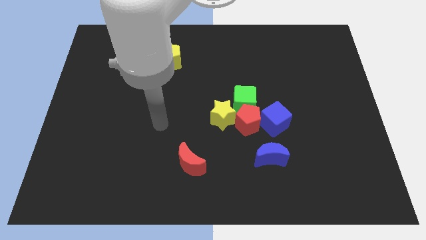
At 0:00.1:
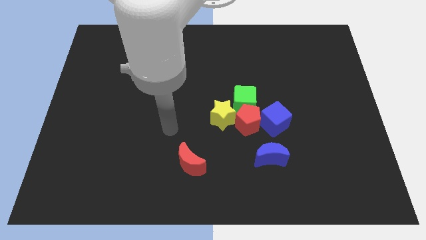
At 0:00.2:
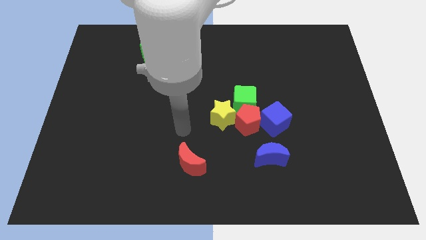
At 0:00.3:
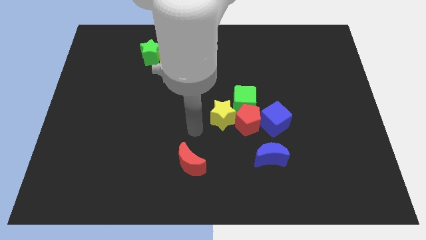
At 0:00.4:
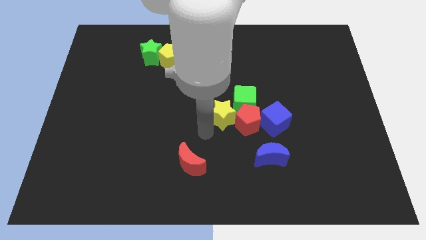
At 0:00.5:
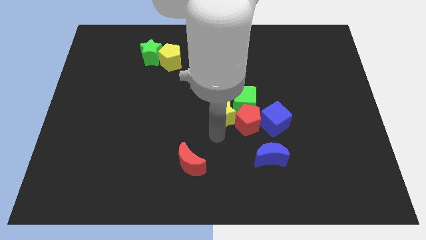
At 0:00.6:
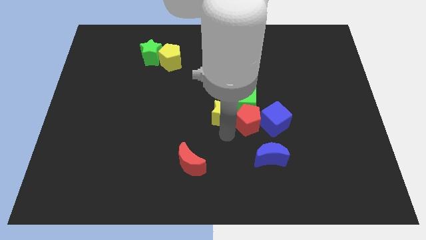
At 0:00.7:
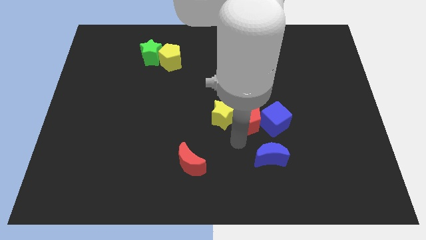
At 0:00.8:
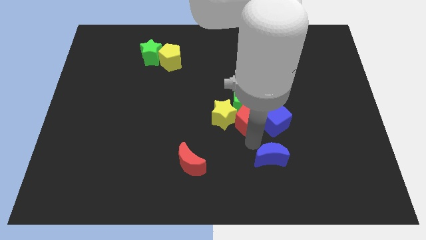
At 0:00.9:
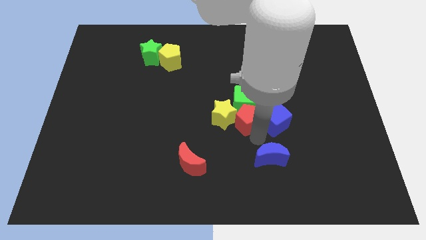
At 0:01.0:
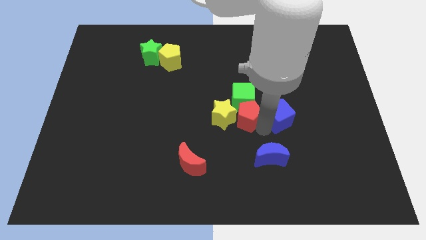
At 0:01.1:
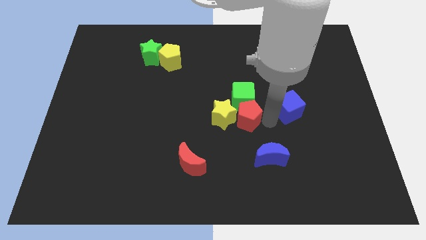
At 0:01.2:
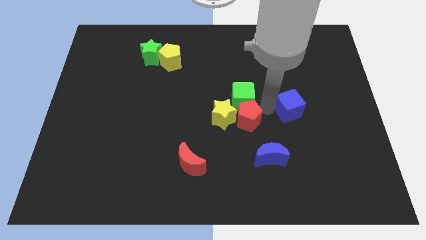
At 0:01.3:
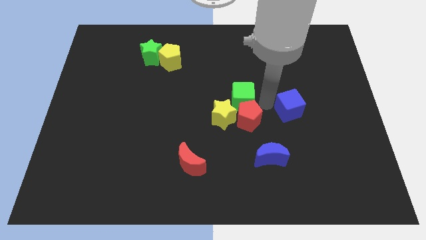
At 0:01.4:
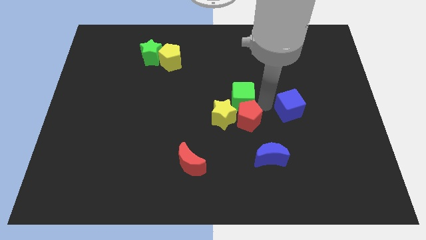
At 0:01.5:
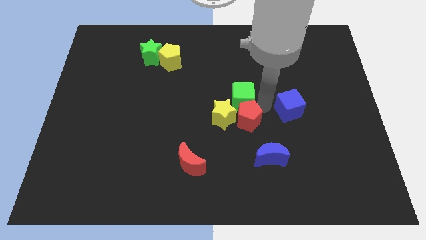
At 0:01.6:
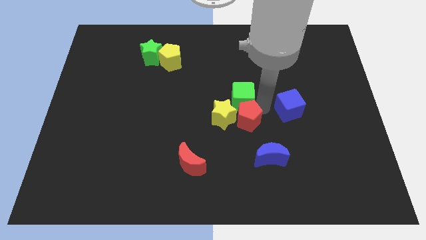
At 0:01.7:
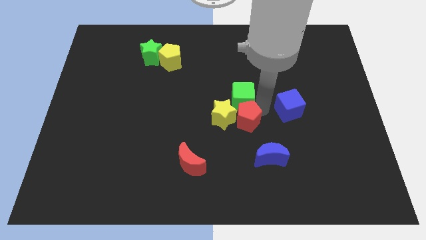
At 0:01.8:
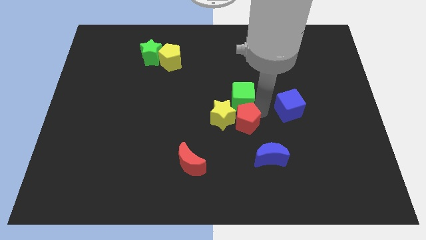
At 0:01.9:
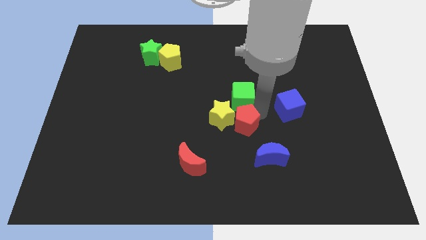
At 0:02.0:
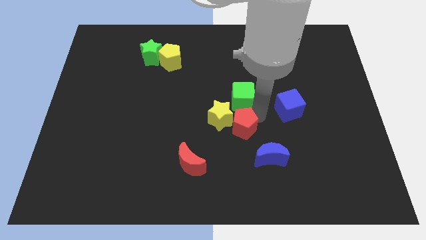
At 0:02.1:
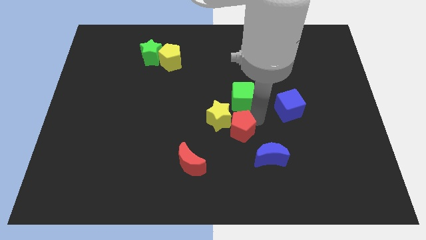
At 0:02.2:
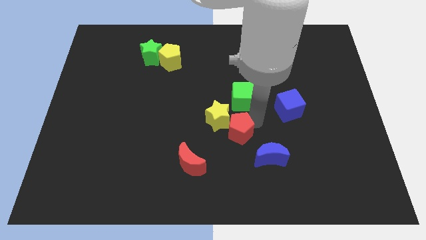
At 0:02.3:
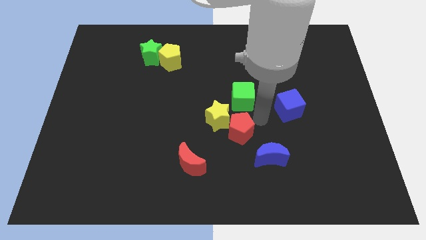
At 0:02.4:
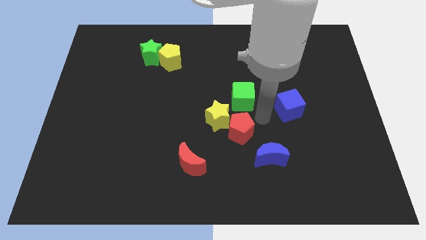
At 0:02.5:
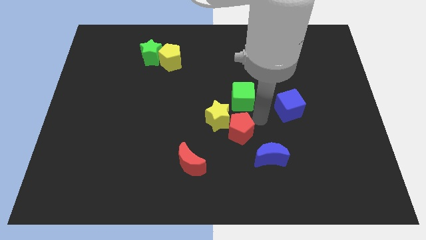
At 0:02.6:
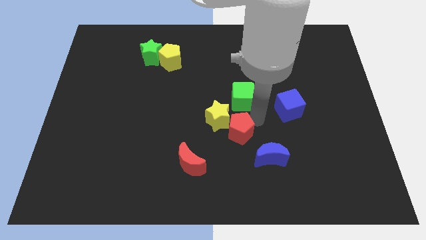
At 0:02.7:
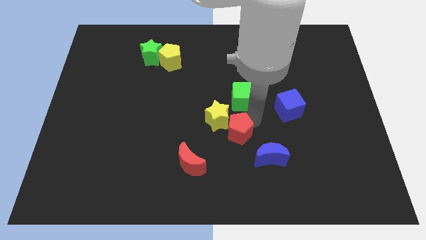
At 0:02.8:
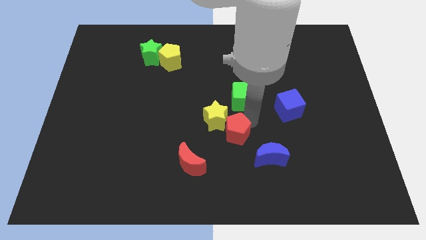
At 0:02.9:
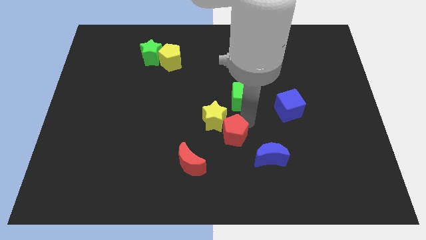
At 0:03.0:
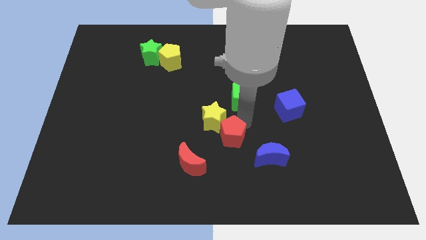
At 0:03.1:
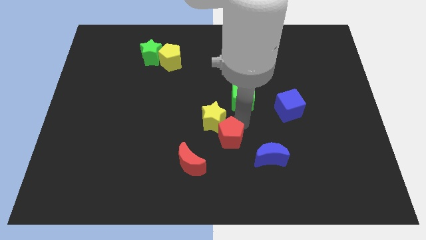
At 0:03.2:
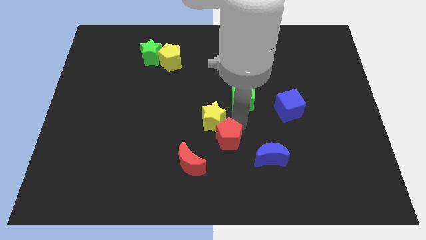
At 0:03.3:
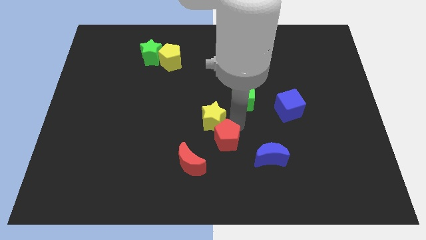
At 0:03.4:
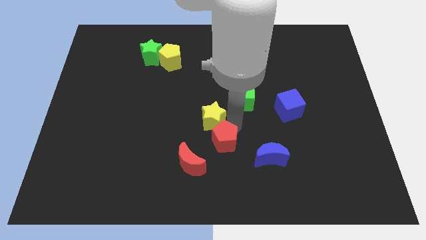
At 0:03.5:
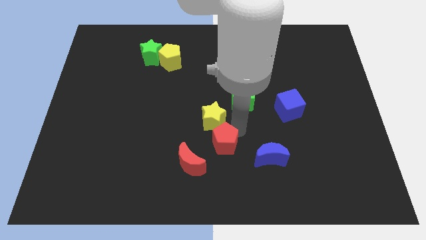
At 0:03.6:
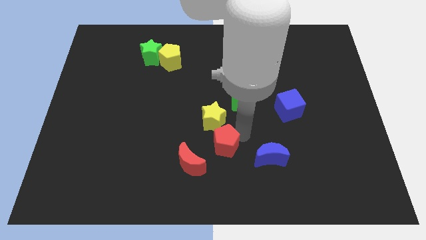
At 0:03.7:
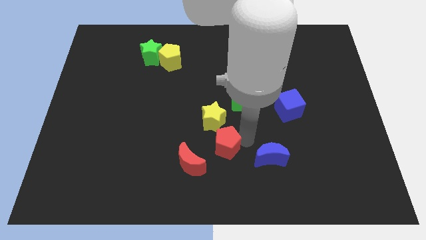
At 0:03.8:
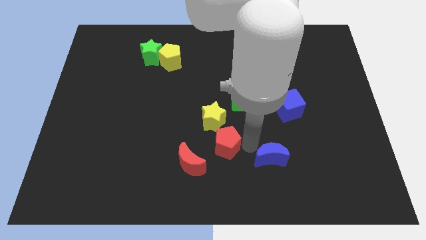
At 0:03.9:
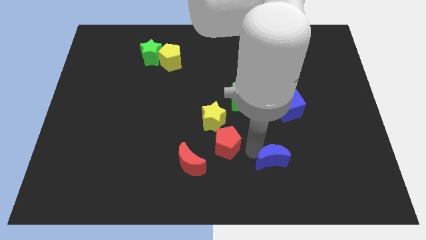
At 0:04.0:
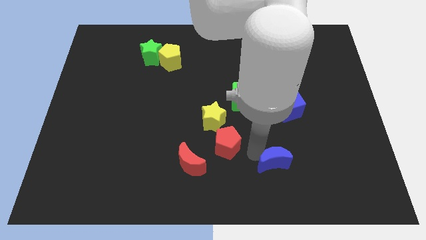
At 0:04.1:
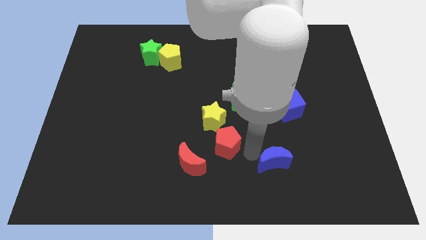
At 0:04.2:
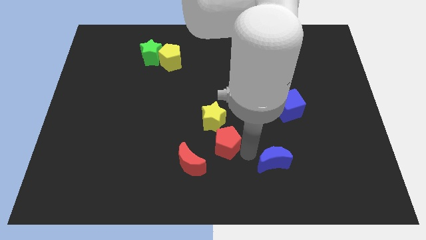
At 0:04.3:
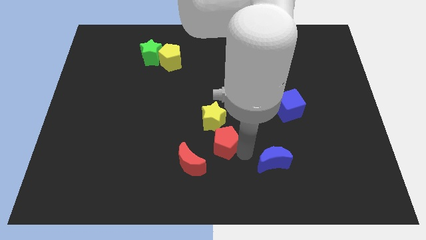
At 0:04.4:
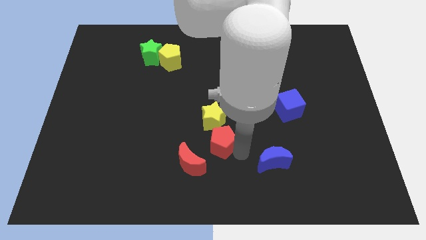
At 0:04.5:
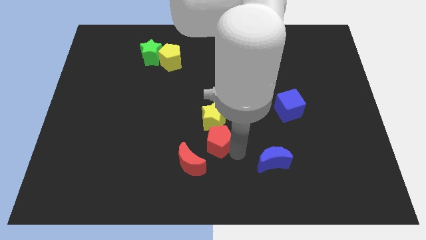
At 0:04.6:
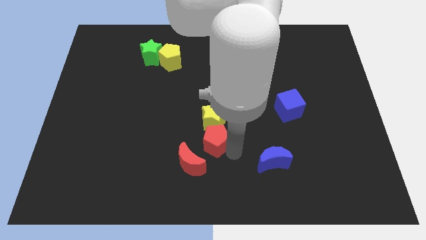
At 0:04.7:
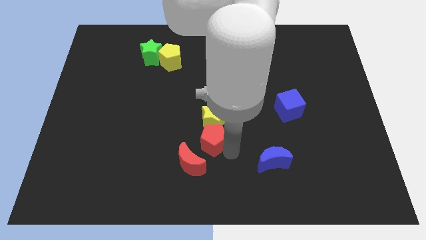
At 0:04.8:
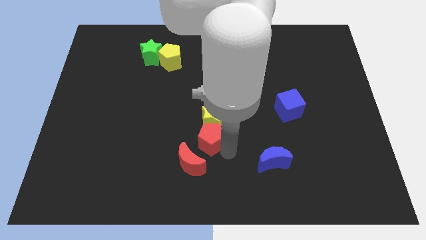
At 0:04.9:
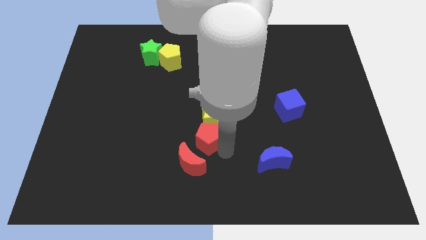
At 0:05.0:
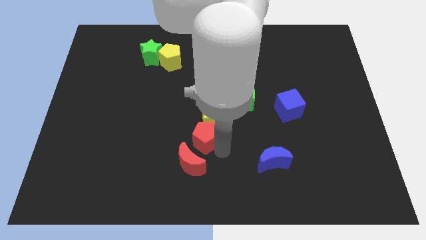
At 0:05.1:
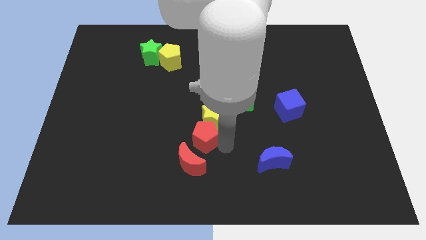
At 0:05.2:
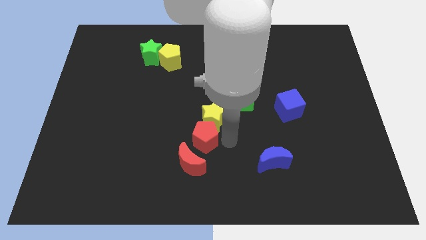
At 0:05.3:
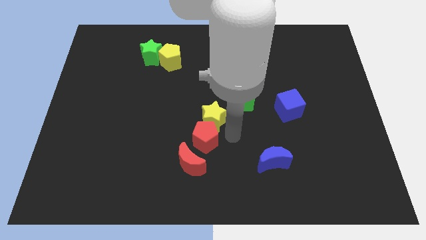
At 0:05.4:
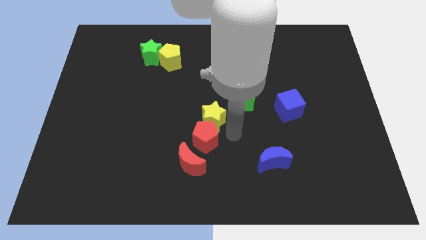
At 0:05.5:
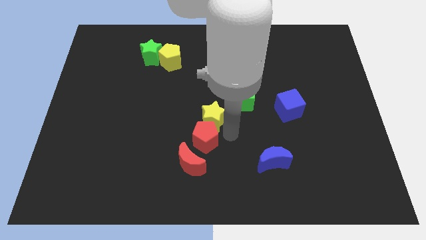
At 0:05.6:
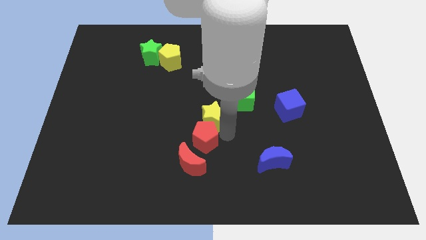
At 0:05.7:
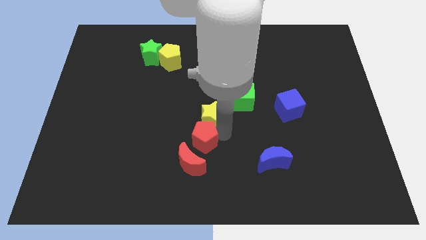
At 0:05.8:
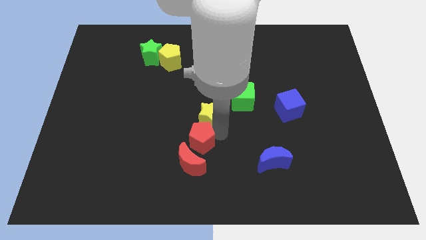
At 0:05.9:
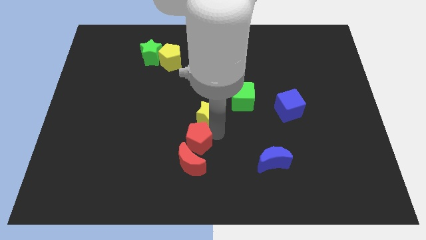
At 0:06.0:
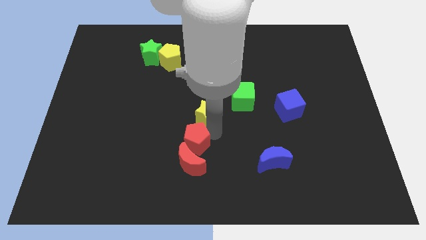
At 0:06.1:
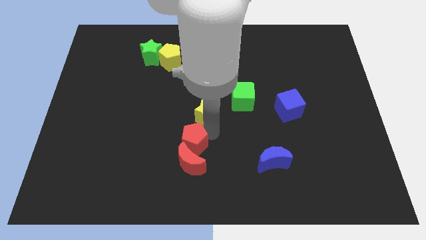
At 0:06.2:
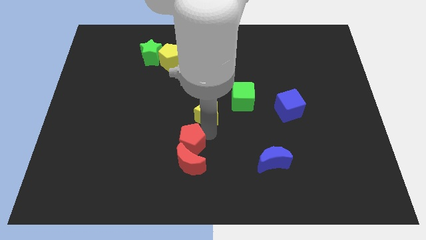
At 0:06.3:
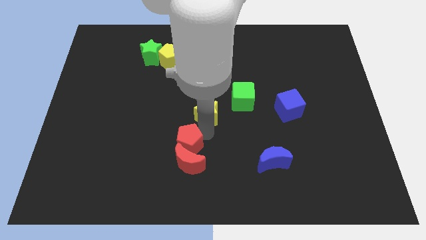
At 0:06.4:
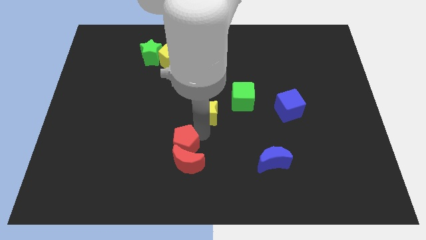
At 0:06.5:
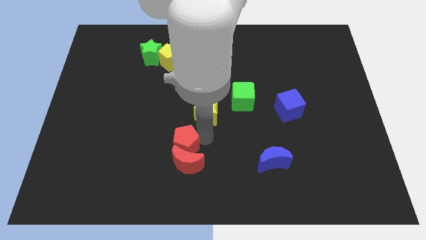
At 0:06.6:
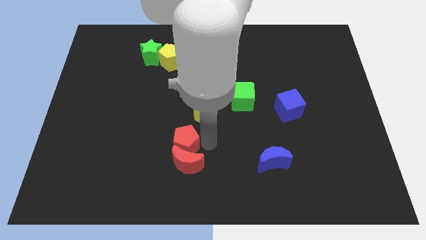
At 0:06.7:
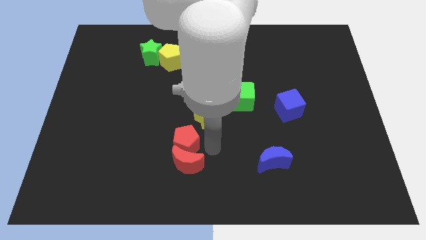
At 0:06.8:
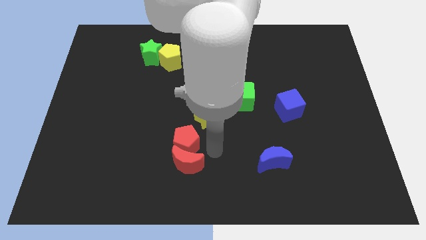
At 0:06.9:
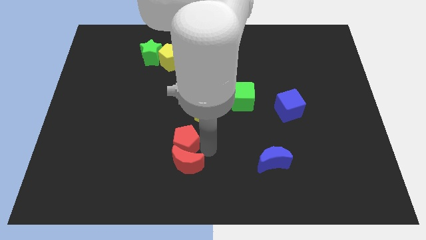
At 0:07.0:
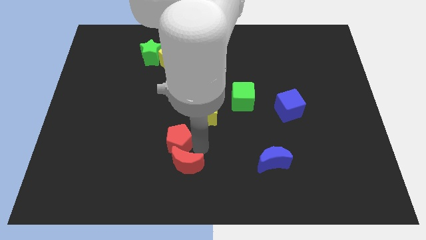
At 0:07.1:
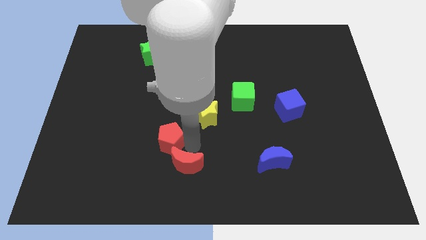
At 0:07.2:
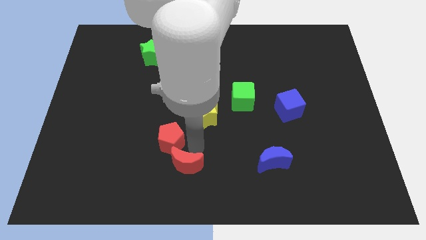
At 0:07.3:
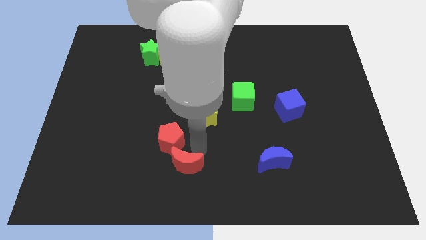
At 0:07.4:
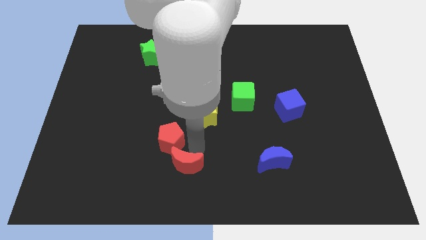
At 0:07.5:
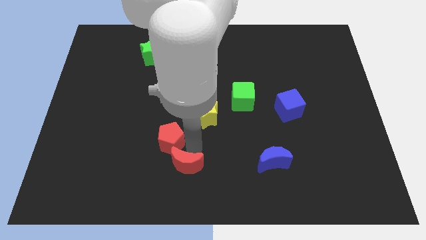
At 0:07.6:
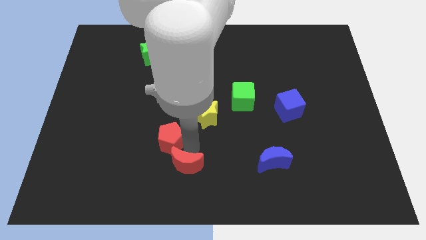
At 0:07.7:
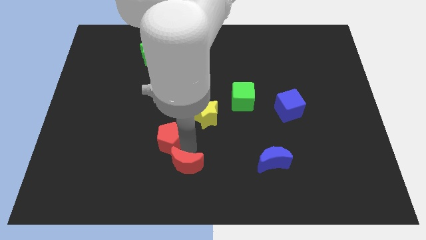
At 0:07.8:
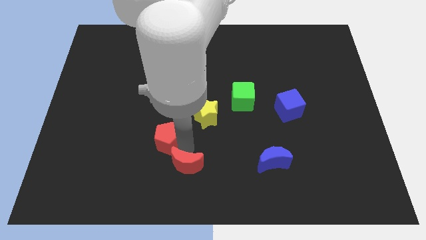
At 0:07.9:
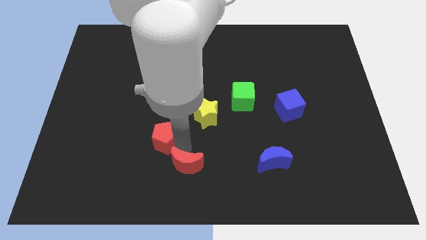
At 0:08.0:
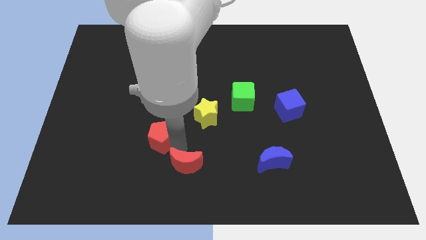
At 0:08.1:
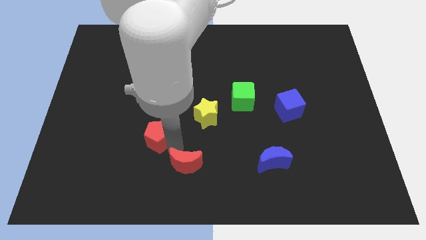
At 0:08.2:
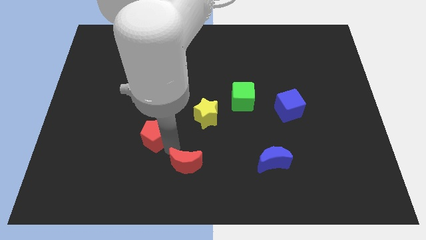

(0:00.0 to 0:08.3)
push the red pentagon left

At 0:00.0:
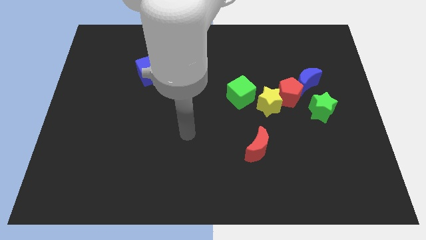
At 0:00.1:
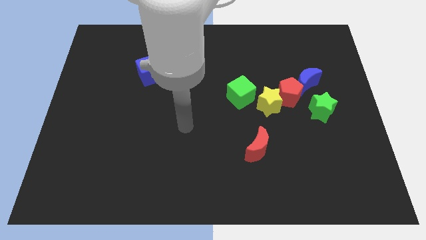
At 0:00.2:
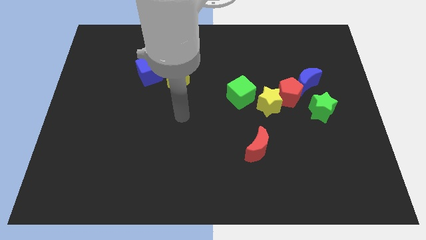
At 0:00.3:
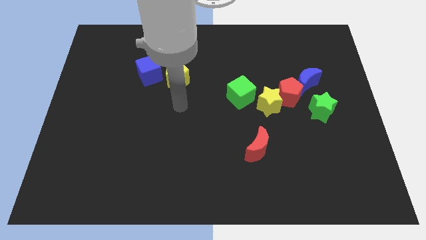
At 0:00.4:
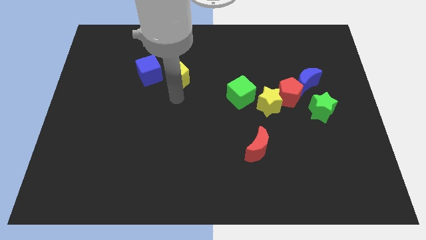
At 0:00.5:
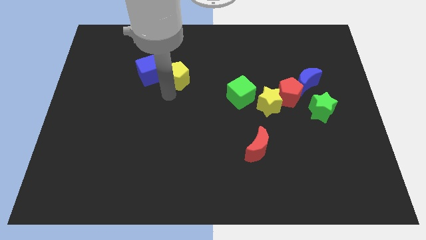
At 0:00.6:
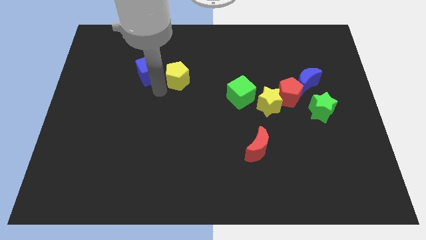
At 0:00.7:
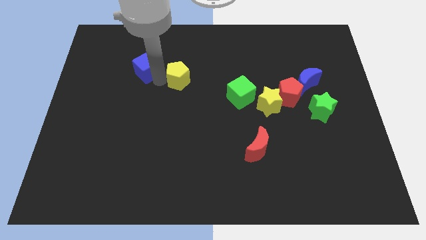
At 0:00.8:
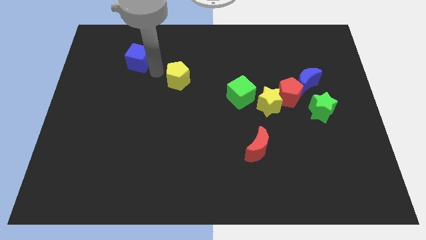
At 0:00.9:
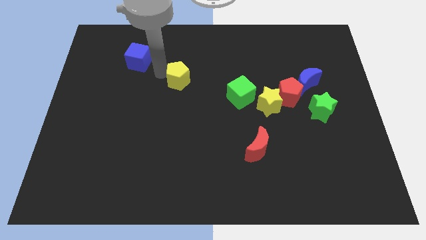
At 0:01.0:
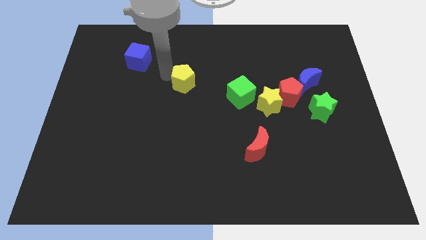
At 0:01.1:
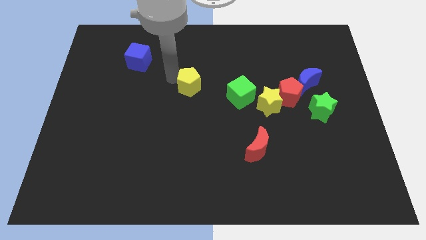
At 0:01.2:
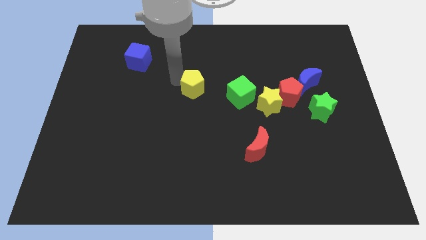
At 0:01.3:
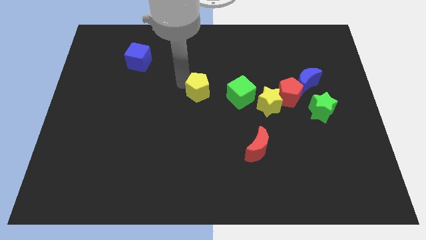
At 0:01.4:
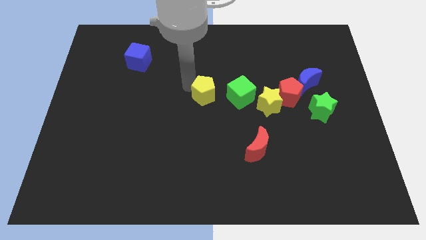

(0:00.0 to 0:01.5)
move the yellow pentagon somewhat downwards and to the right
